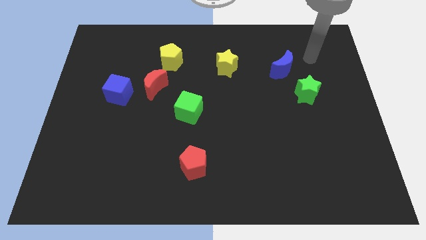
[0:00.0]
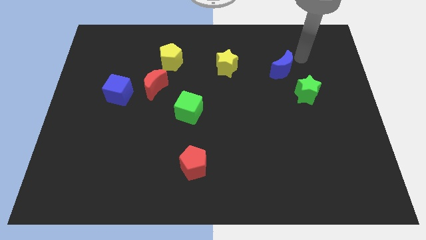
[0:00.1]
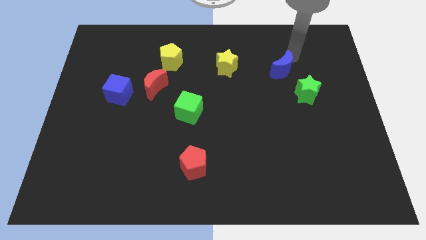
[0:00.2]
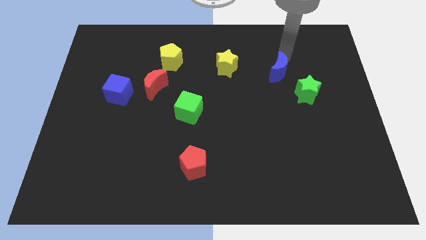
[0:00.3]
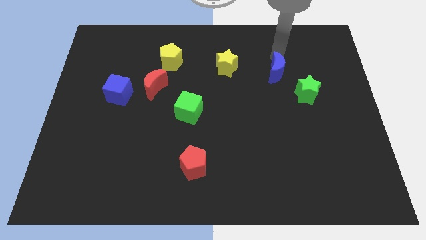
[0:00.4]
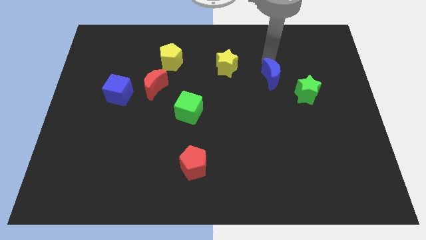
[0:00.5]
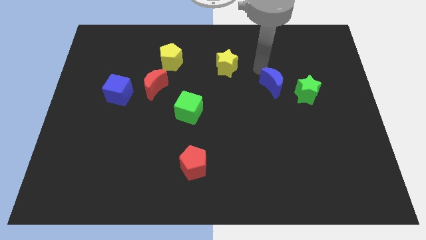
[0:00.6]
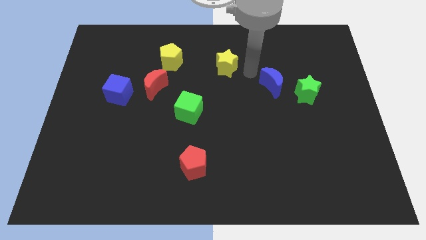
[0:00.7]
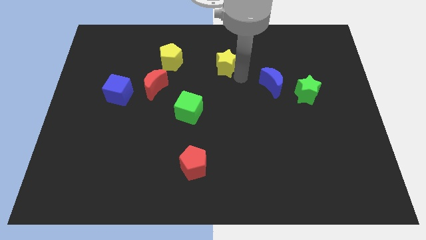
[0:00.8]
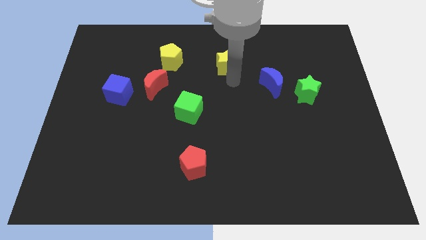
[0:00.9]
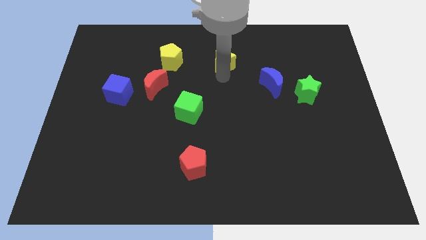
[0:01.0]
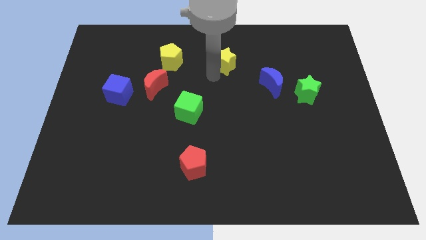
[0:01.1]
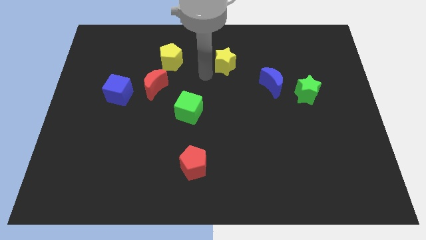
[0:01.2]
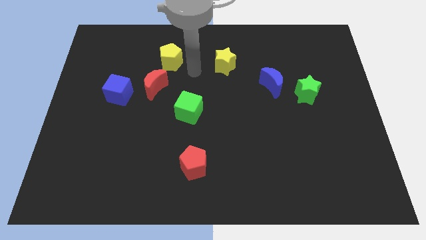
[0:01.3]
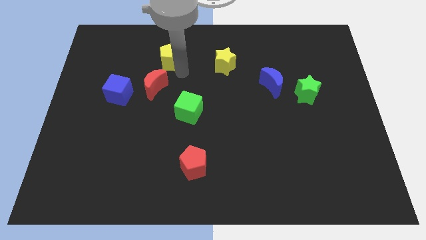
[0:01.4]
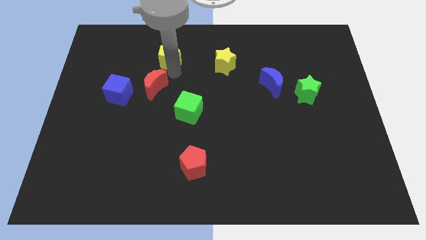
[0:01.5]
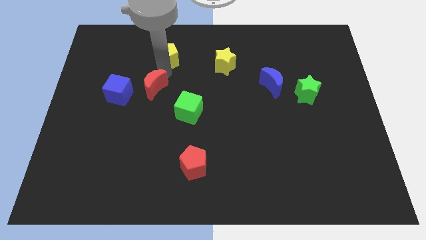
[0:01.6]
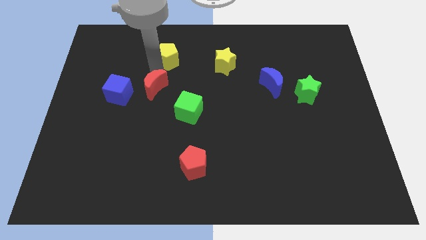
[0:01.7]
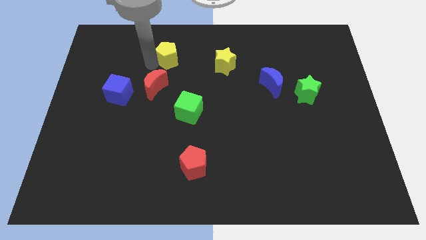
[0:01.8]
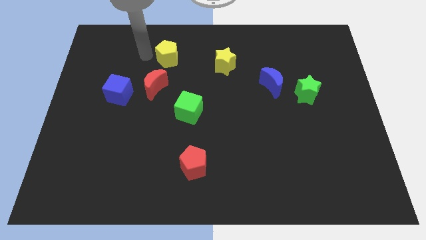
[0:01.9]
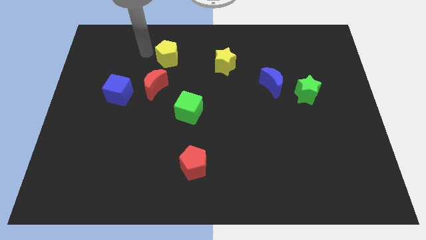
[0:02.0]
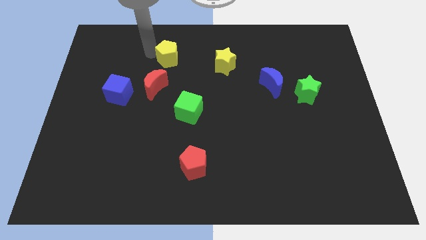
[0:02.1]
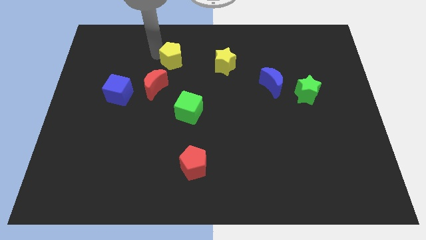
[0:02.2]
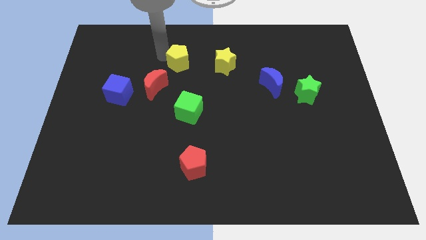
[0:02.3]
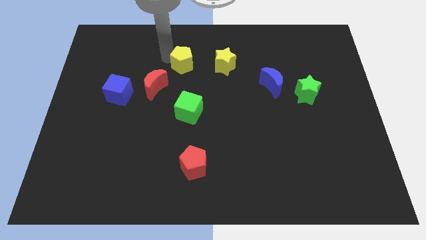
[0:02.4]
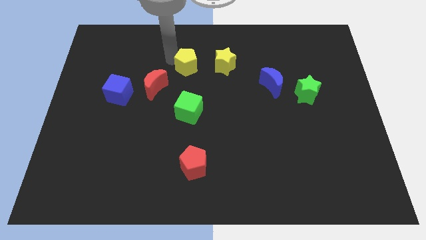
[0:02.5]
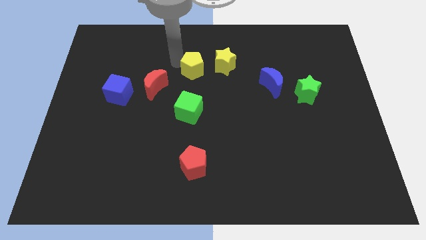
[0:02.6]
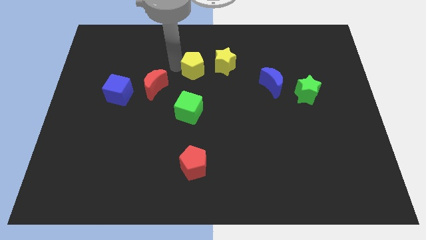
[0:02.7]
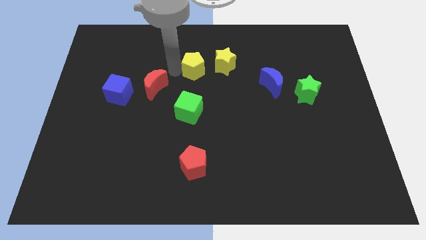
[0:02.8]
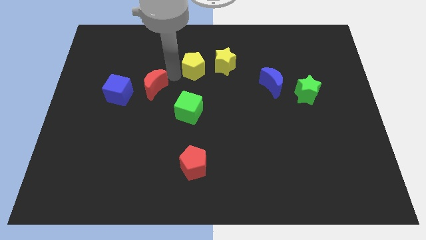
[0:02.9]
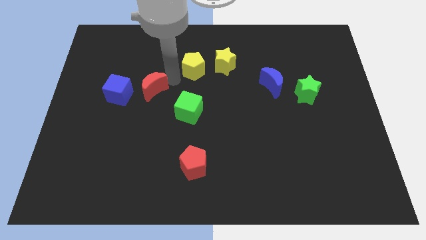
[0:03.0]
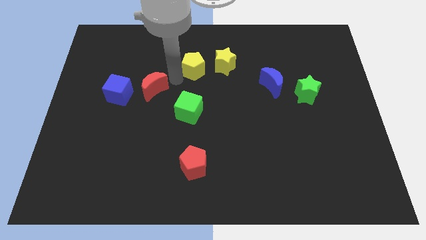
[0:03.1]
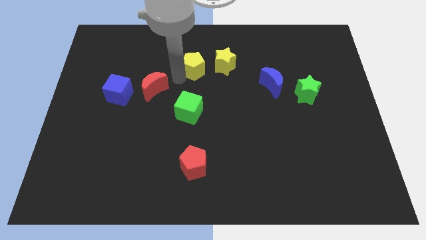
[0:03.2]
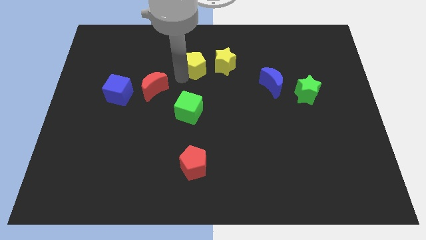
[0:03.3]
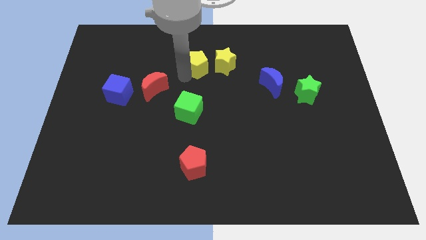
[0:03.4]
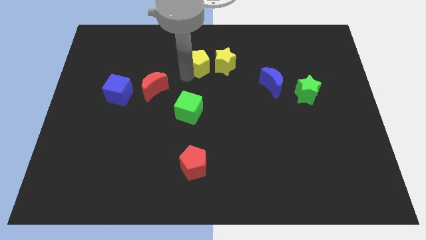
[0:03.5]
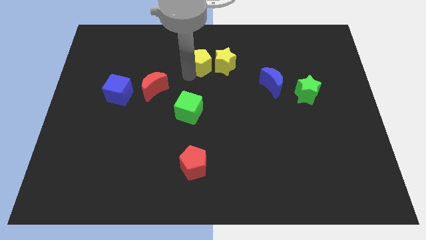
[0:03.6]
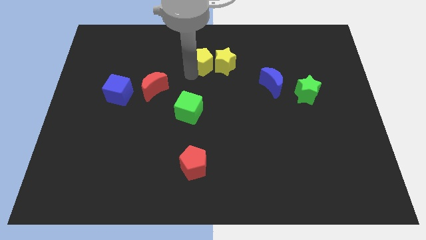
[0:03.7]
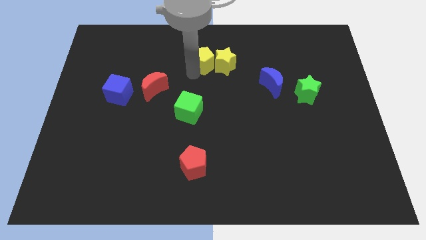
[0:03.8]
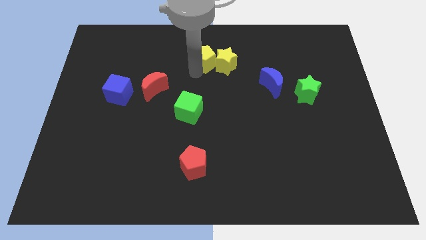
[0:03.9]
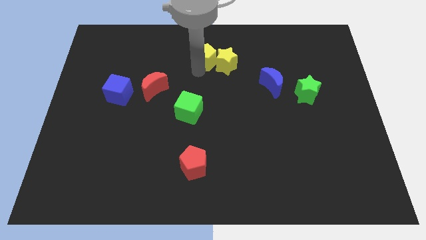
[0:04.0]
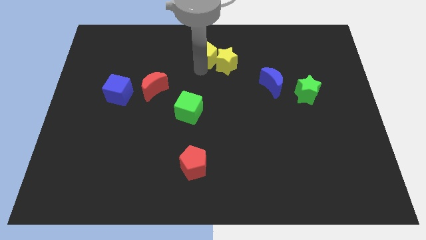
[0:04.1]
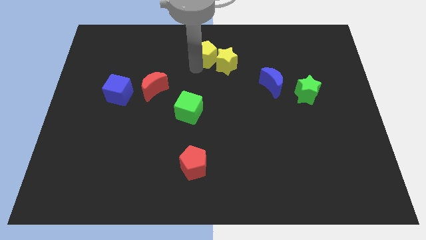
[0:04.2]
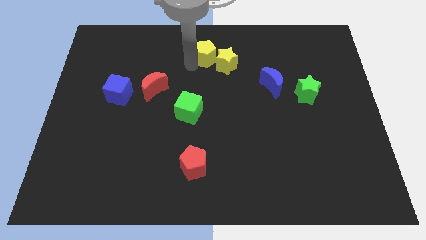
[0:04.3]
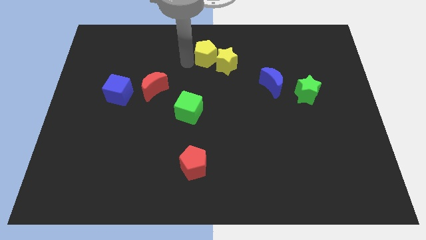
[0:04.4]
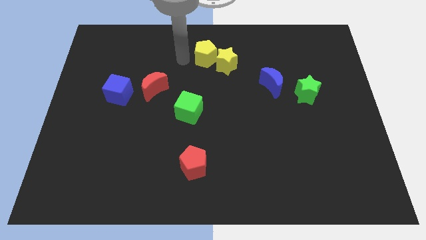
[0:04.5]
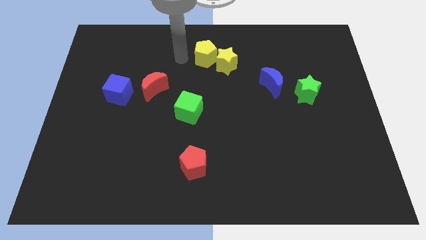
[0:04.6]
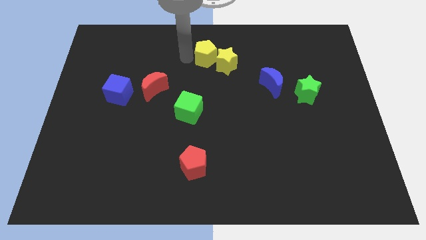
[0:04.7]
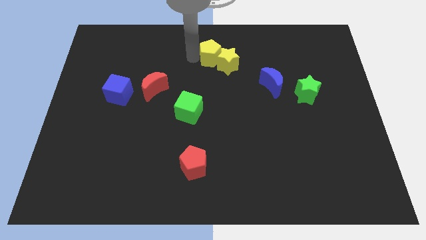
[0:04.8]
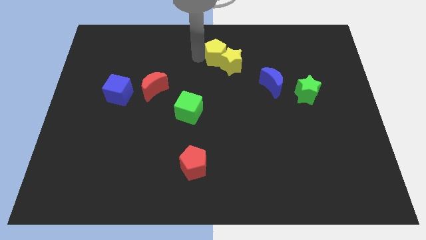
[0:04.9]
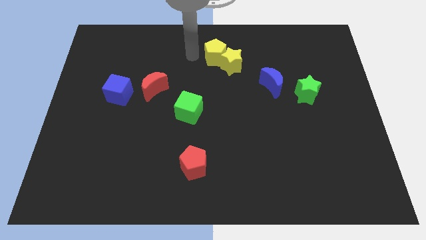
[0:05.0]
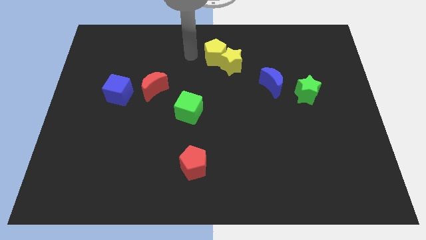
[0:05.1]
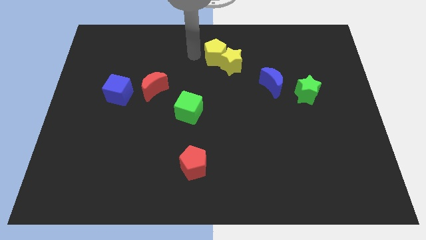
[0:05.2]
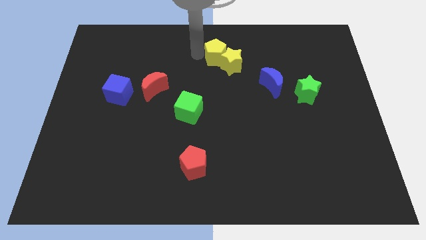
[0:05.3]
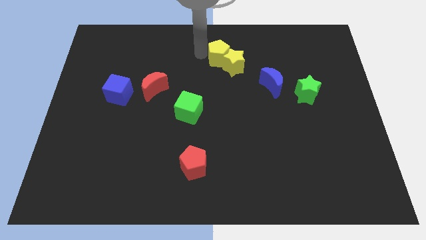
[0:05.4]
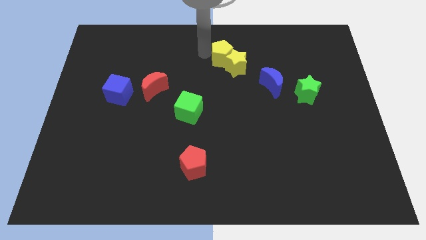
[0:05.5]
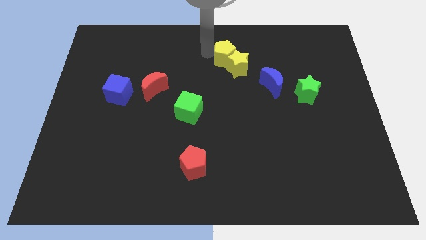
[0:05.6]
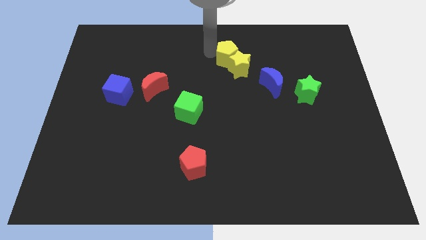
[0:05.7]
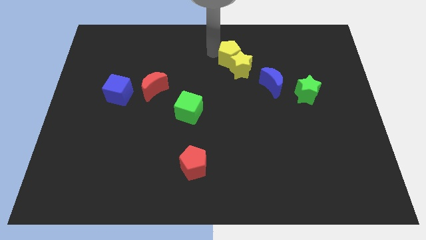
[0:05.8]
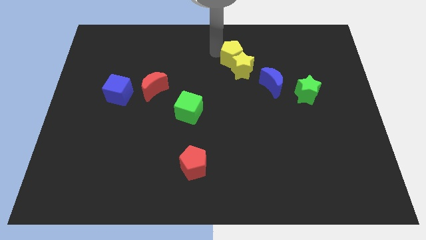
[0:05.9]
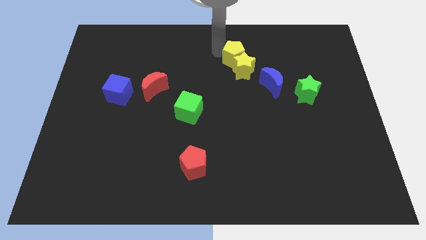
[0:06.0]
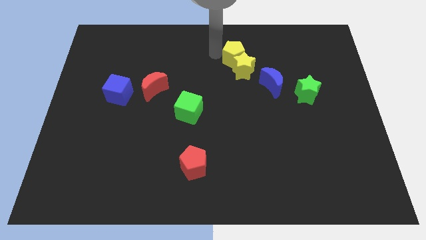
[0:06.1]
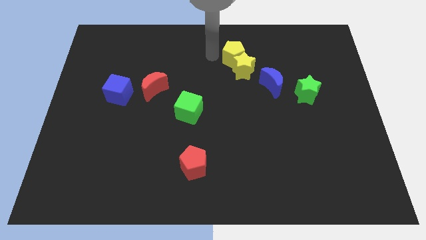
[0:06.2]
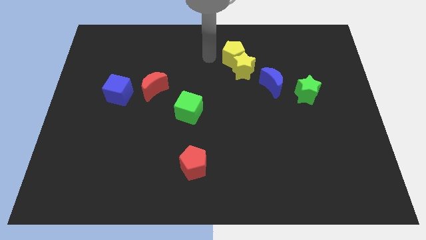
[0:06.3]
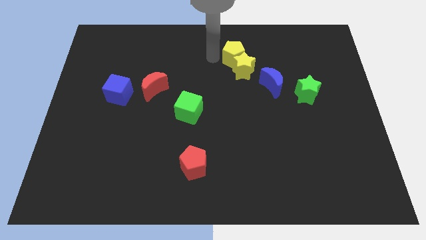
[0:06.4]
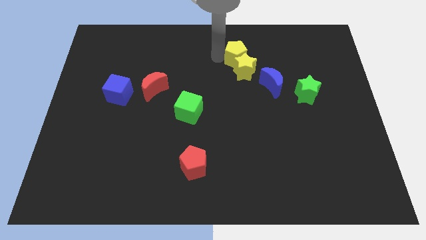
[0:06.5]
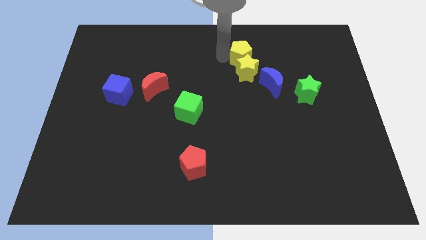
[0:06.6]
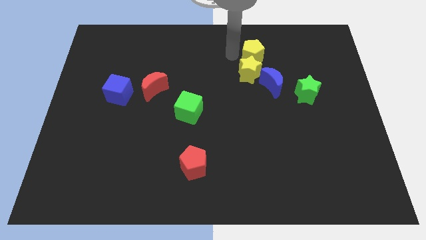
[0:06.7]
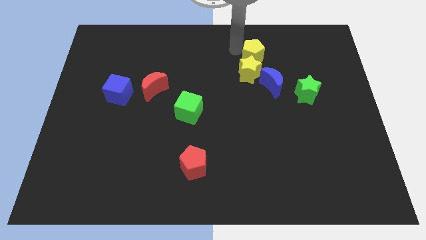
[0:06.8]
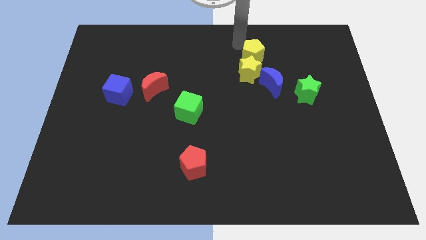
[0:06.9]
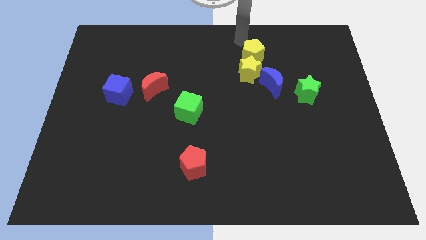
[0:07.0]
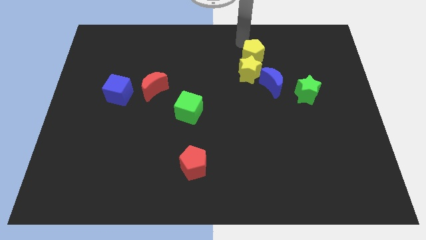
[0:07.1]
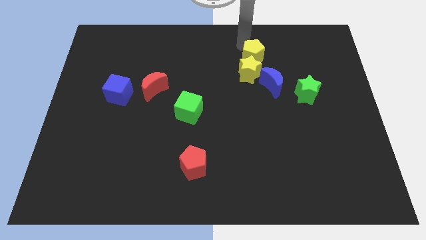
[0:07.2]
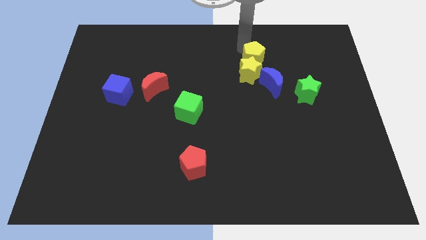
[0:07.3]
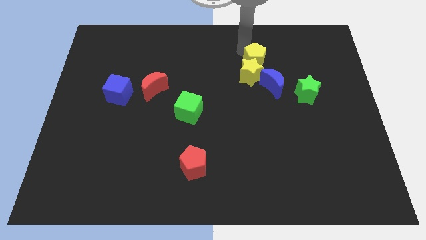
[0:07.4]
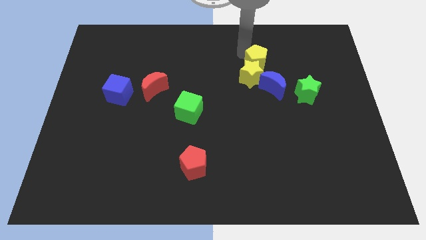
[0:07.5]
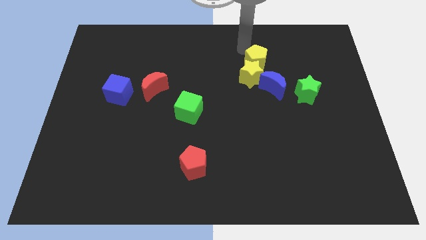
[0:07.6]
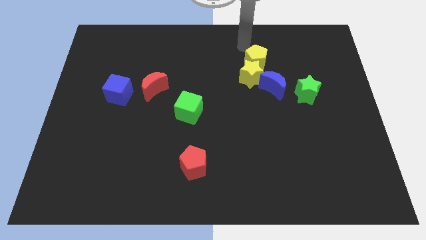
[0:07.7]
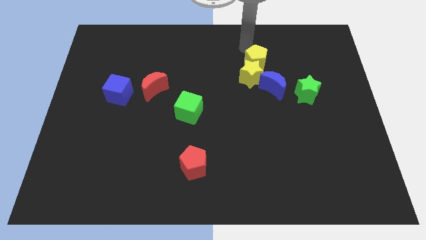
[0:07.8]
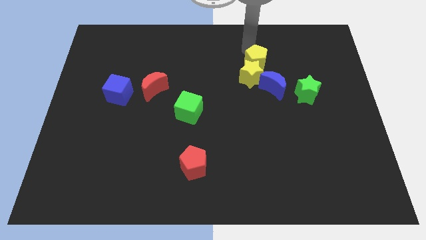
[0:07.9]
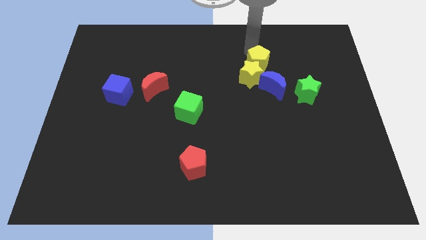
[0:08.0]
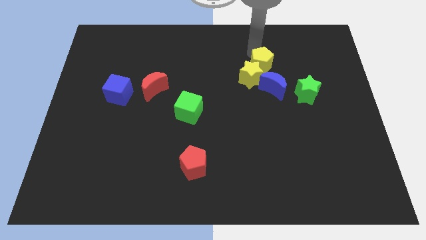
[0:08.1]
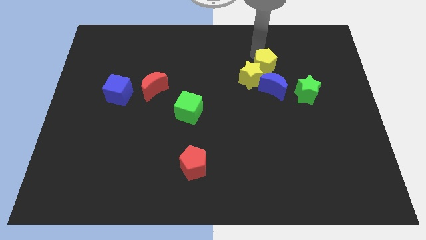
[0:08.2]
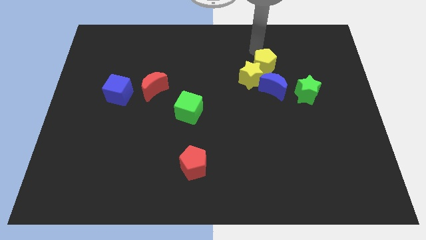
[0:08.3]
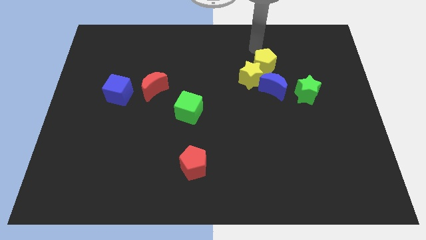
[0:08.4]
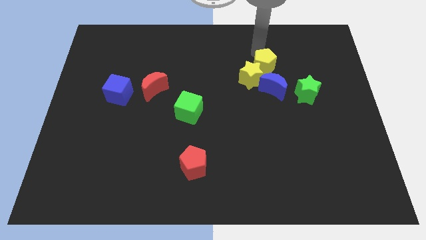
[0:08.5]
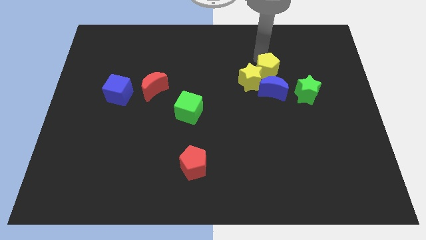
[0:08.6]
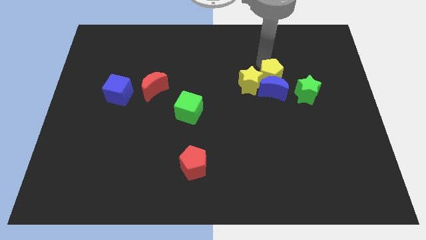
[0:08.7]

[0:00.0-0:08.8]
slide the yellow pentagon close to the blue moon
